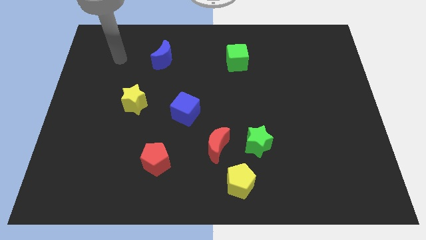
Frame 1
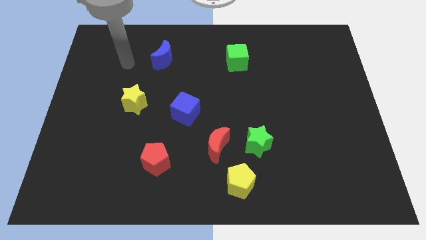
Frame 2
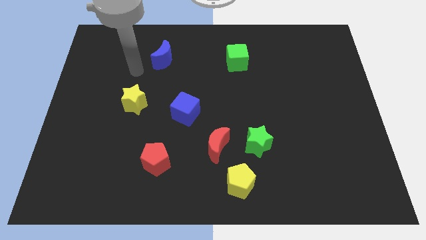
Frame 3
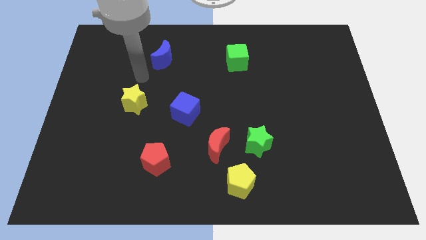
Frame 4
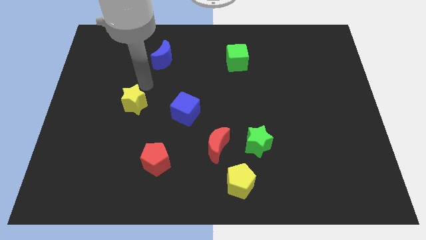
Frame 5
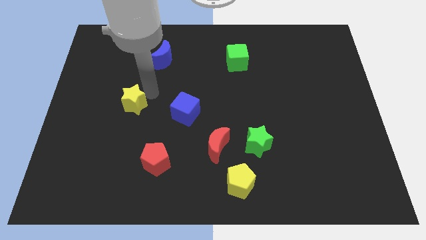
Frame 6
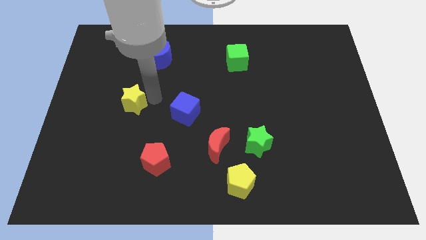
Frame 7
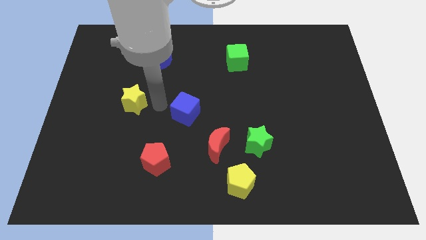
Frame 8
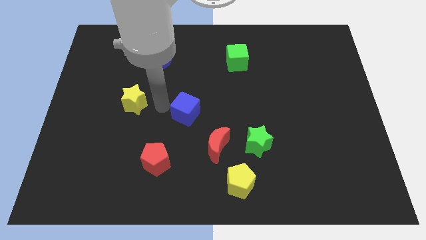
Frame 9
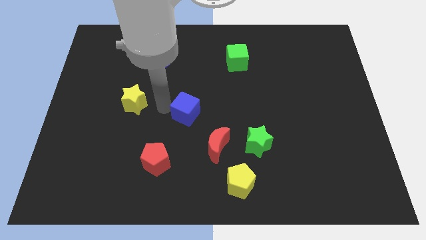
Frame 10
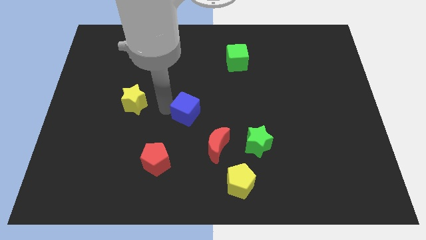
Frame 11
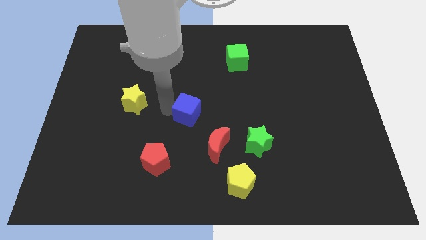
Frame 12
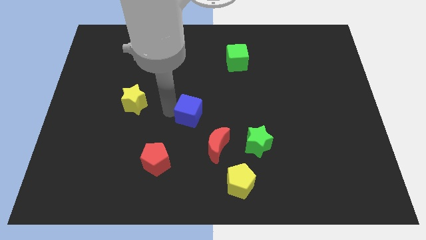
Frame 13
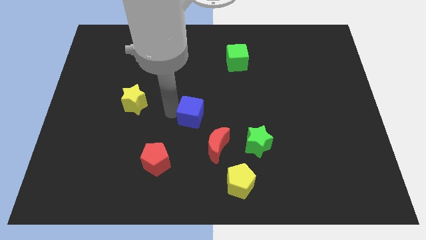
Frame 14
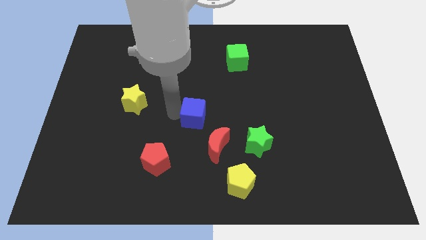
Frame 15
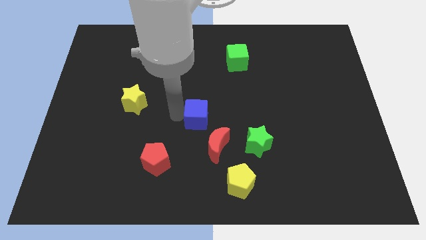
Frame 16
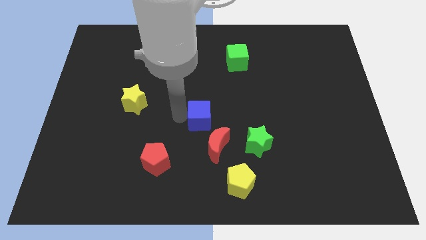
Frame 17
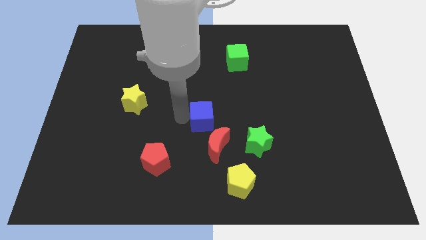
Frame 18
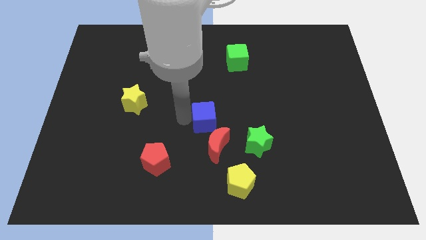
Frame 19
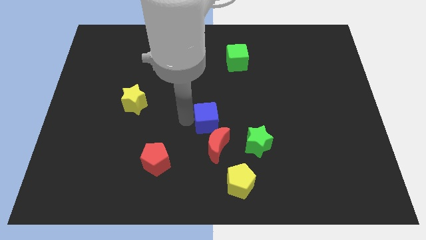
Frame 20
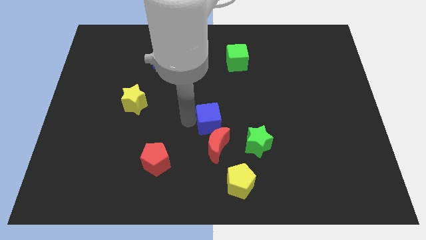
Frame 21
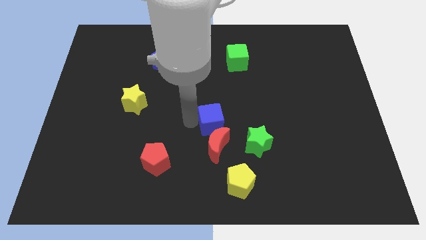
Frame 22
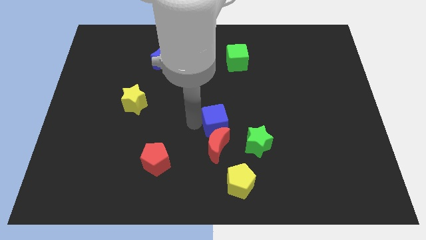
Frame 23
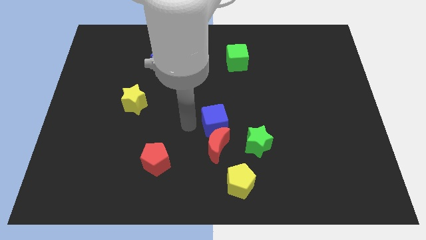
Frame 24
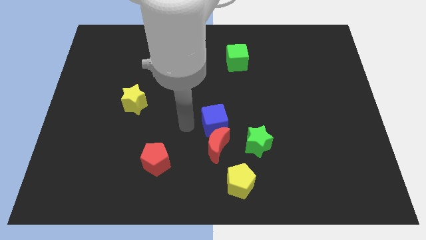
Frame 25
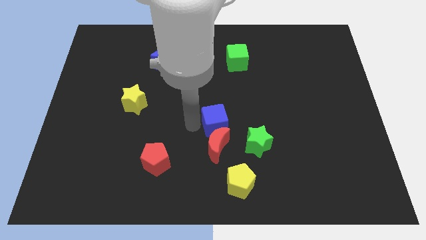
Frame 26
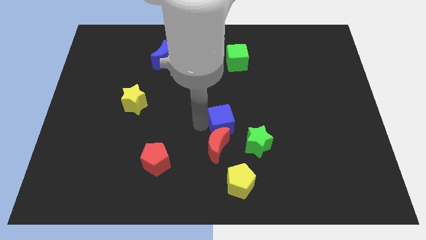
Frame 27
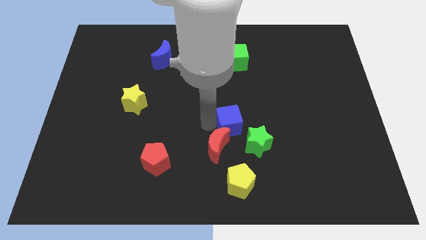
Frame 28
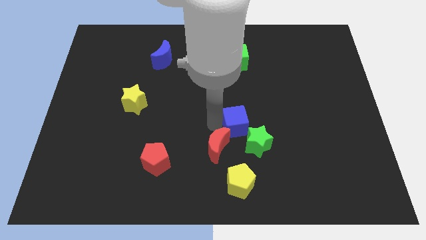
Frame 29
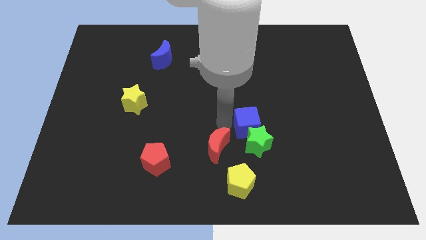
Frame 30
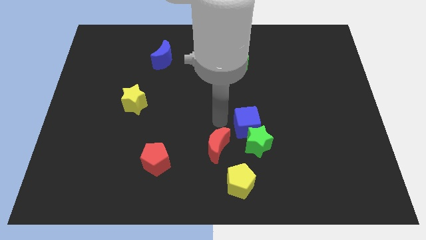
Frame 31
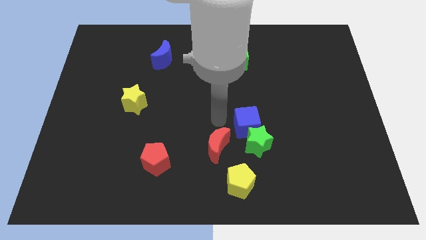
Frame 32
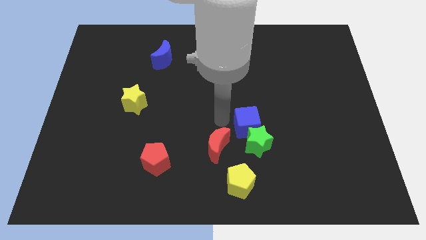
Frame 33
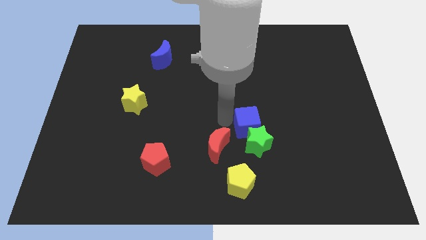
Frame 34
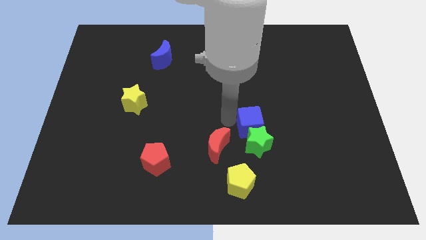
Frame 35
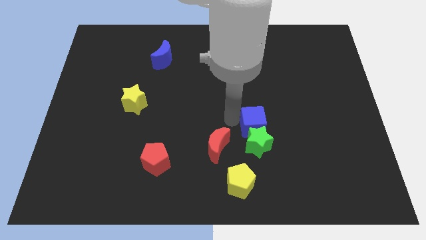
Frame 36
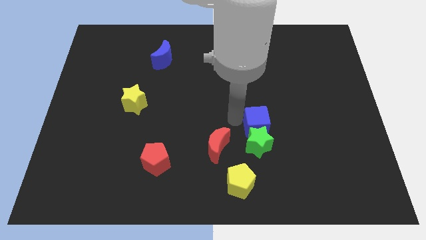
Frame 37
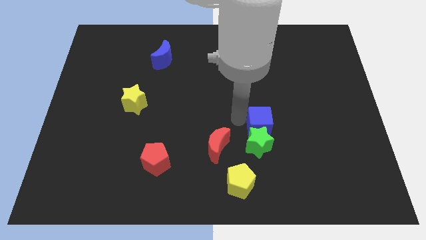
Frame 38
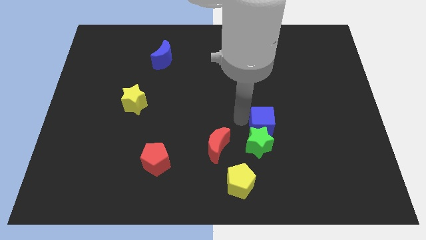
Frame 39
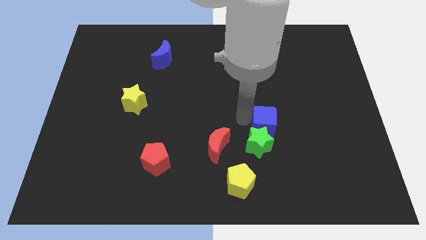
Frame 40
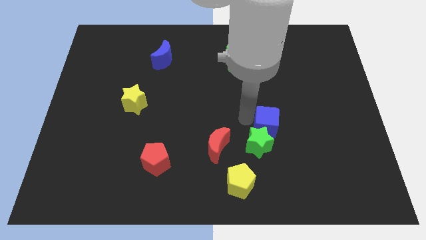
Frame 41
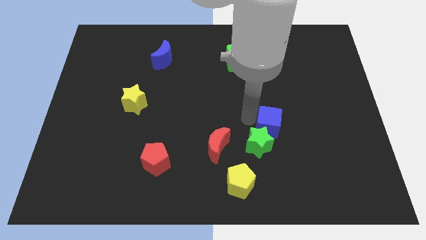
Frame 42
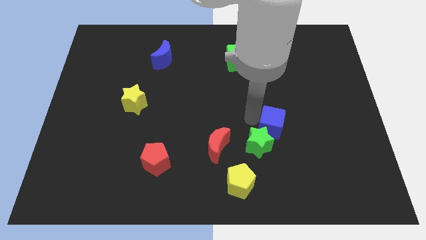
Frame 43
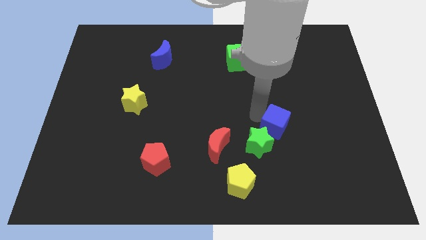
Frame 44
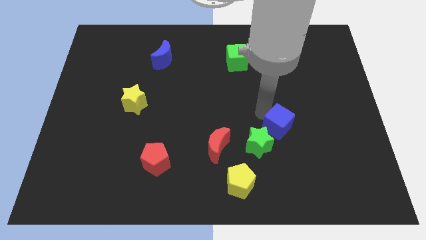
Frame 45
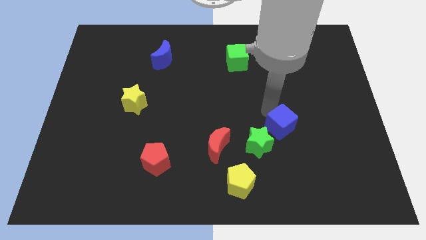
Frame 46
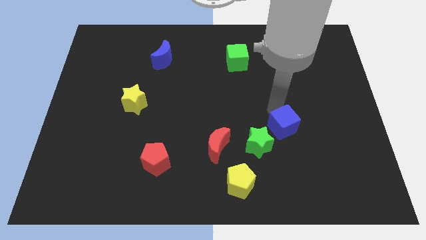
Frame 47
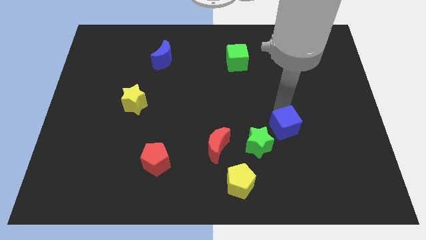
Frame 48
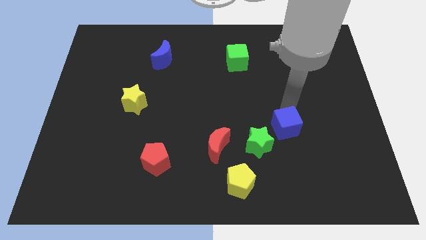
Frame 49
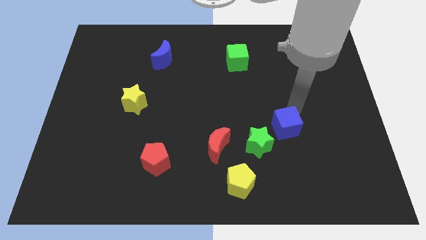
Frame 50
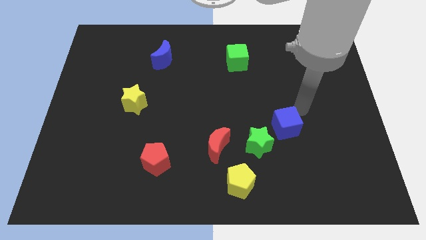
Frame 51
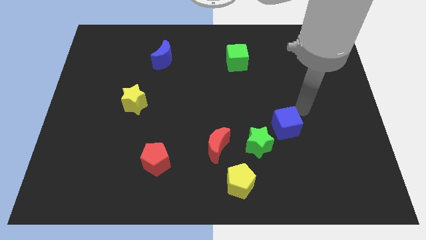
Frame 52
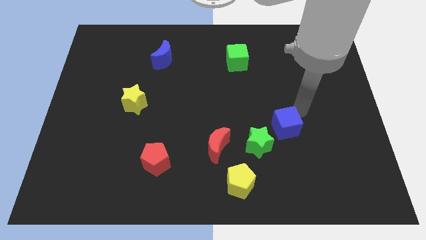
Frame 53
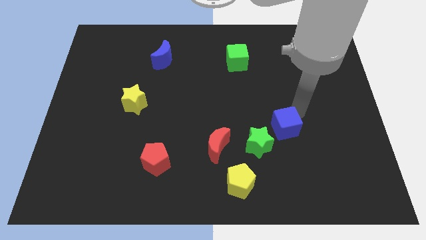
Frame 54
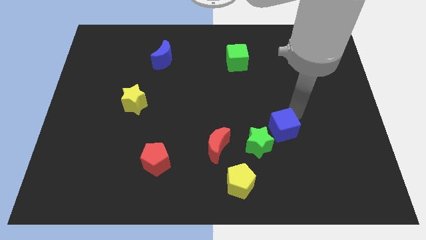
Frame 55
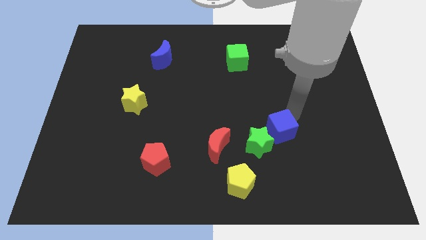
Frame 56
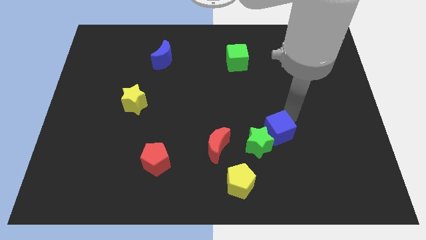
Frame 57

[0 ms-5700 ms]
put the blue cube to the right side of the red moon

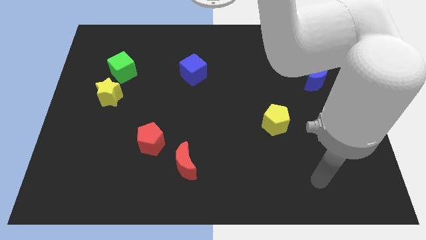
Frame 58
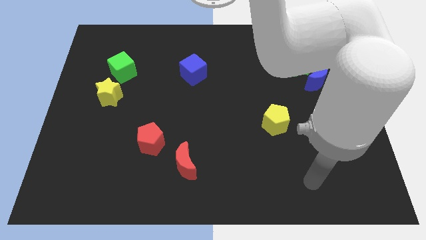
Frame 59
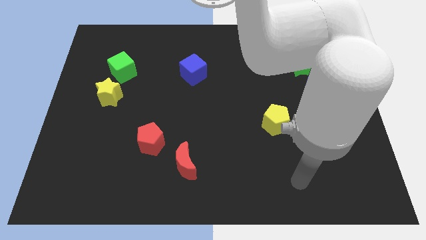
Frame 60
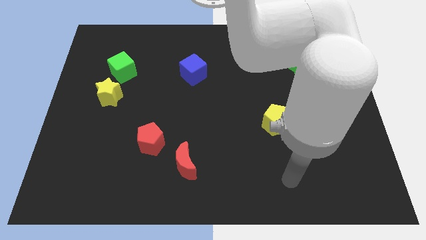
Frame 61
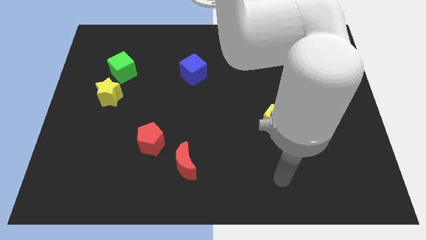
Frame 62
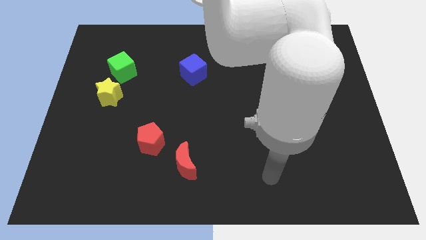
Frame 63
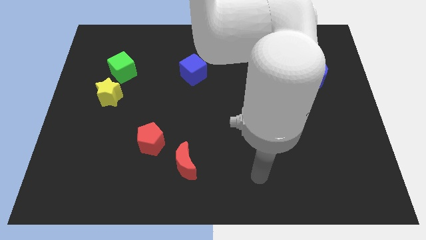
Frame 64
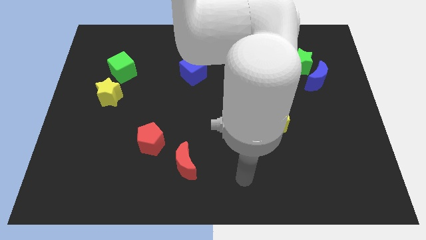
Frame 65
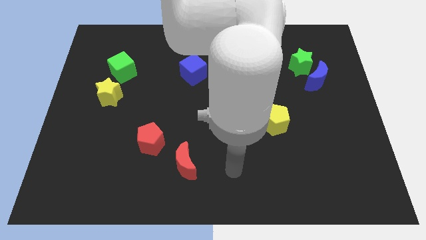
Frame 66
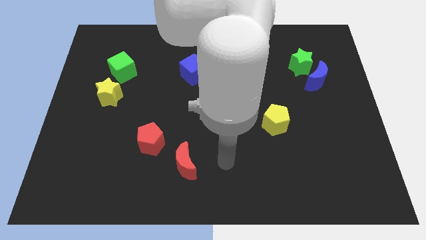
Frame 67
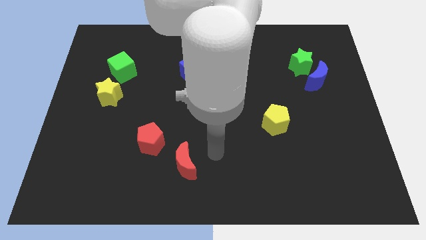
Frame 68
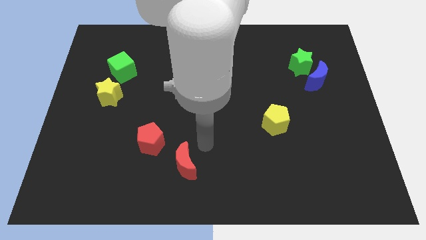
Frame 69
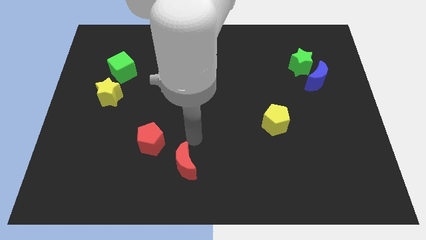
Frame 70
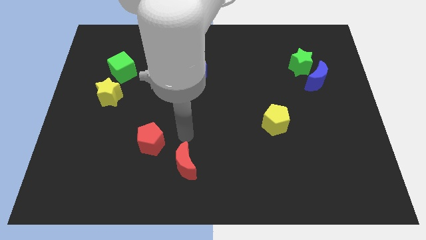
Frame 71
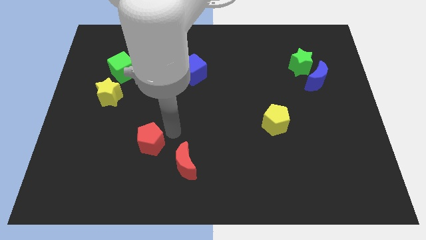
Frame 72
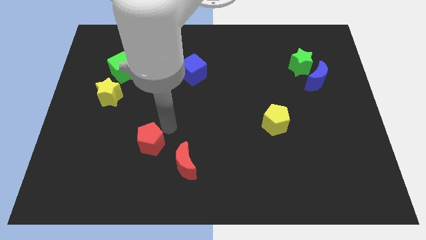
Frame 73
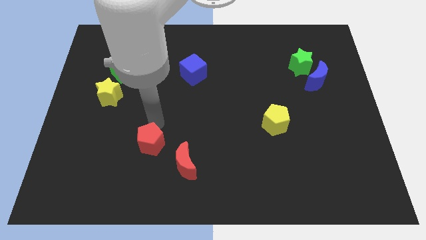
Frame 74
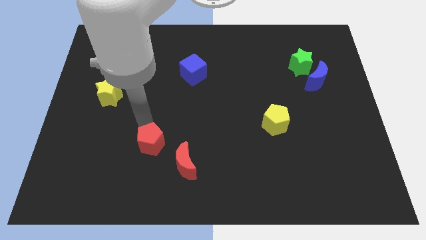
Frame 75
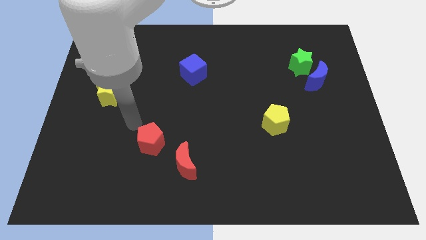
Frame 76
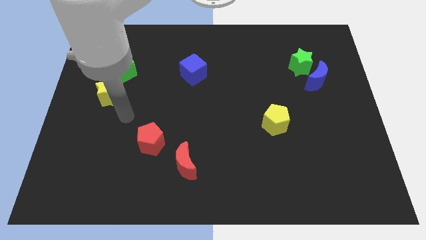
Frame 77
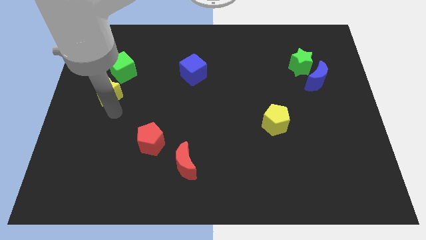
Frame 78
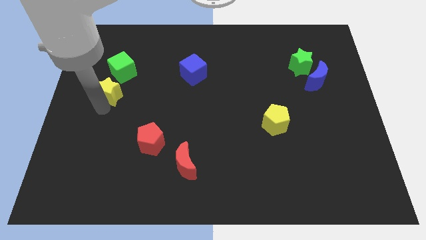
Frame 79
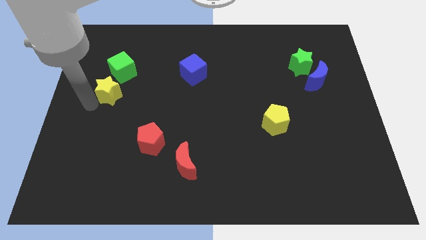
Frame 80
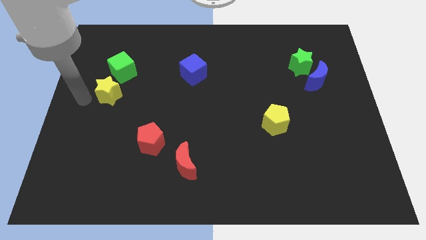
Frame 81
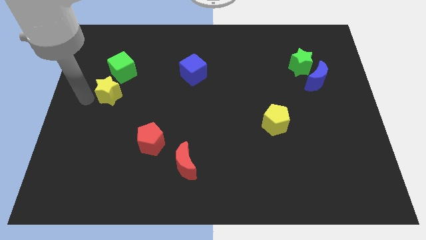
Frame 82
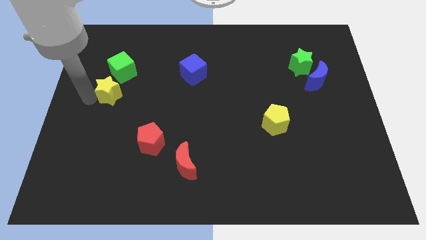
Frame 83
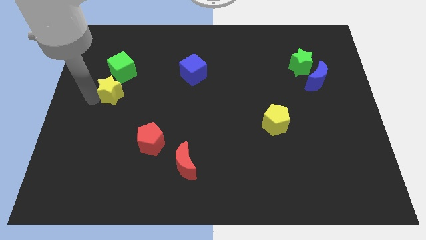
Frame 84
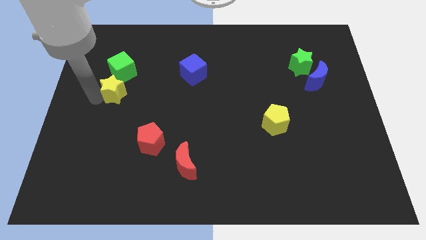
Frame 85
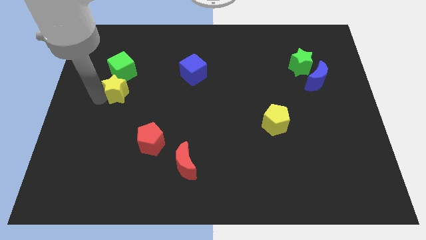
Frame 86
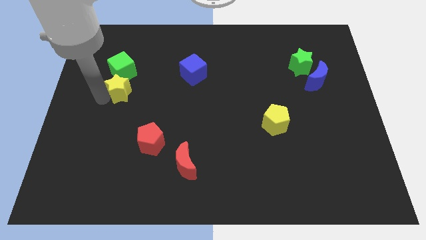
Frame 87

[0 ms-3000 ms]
push the yellow star to the bottom right of the green cube
